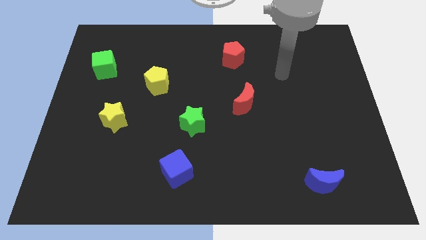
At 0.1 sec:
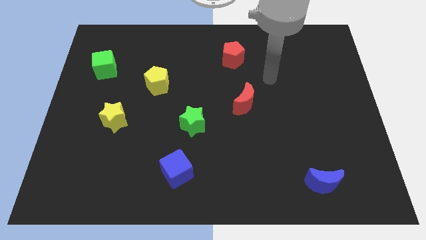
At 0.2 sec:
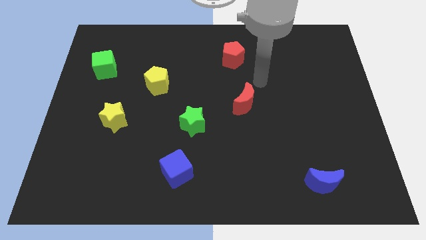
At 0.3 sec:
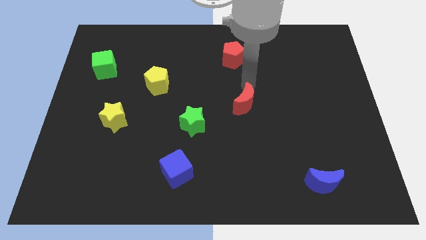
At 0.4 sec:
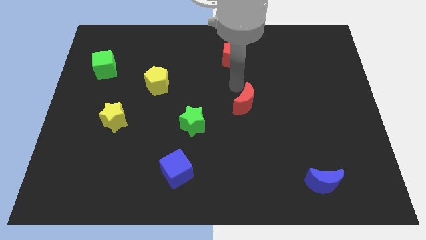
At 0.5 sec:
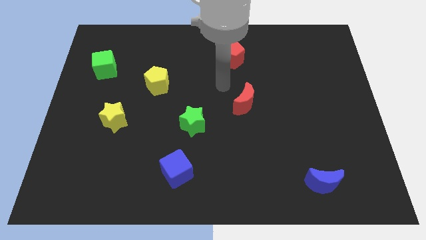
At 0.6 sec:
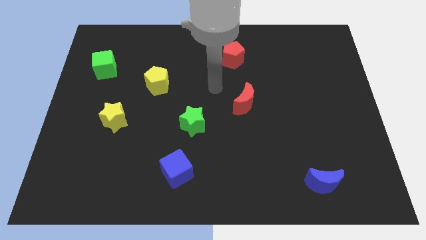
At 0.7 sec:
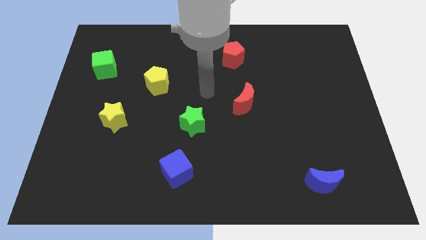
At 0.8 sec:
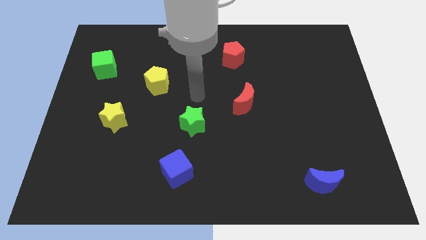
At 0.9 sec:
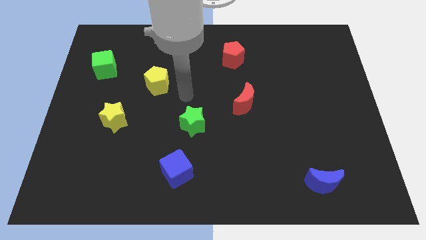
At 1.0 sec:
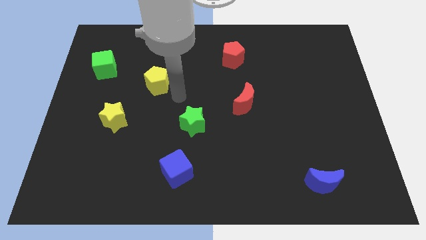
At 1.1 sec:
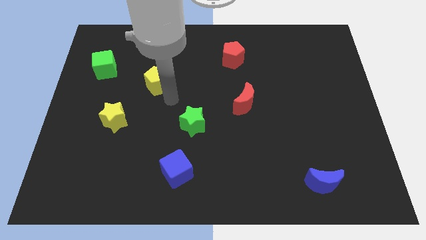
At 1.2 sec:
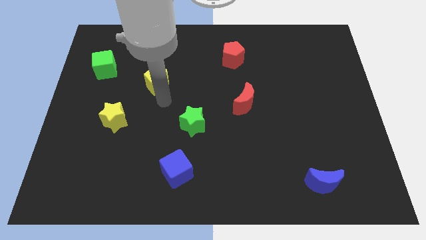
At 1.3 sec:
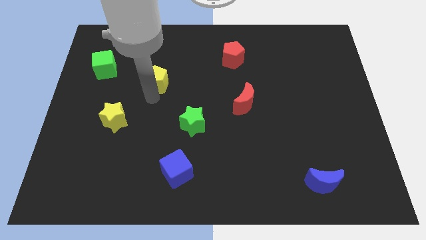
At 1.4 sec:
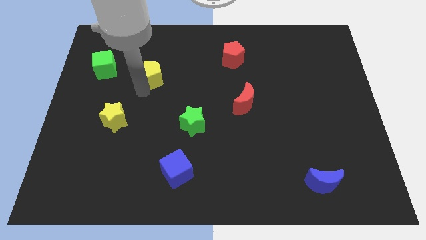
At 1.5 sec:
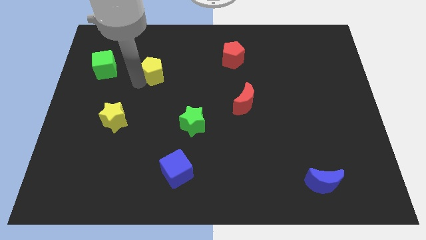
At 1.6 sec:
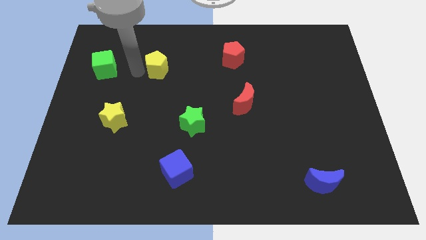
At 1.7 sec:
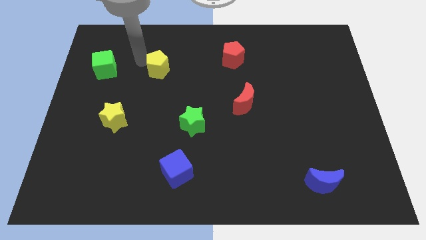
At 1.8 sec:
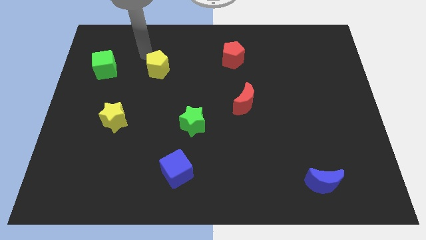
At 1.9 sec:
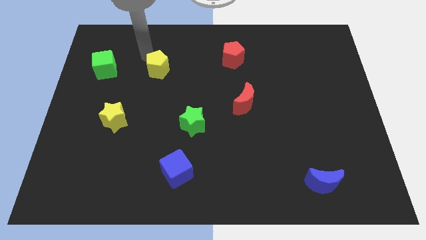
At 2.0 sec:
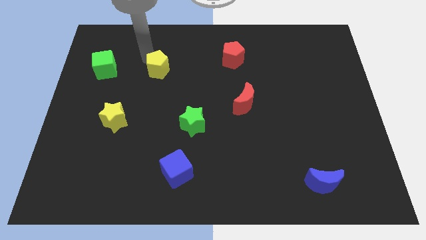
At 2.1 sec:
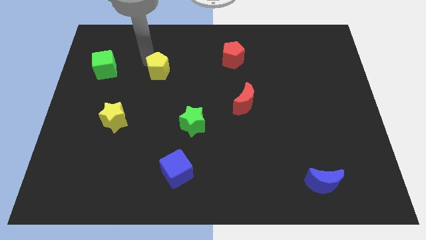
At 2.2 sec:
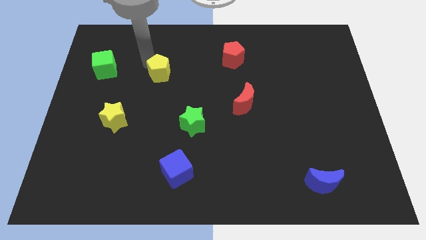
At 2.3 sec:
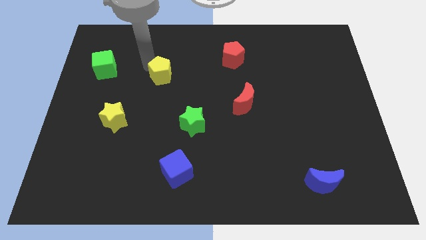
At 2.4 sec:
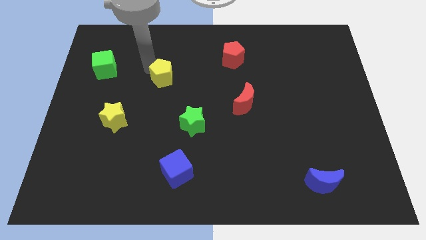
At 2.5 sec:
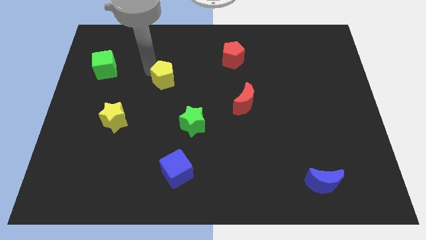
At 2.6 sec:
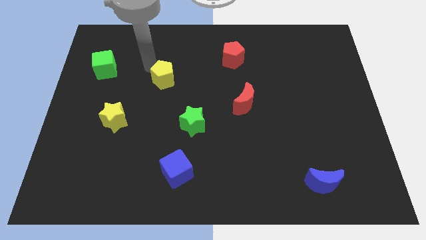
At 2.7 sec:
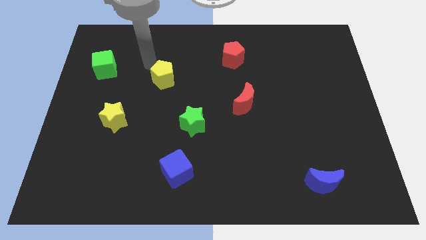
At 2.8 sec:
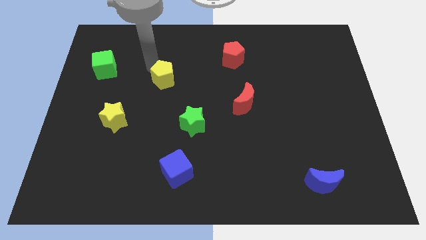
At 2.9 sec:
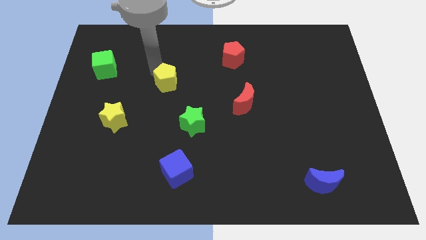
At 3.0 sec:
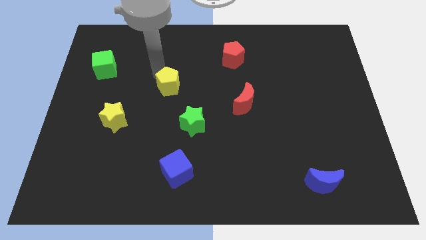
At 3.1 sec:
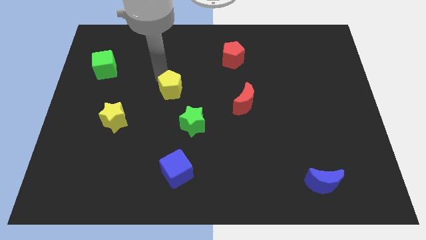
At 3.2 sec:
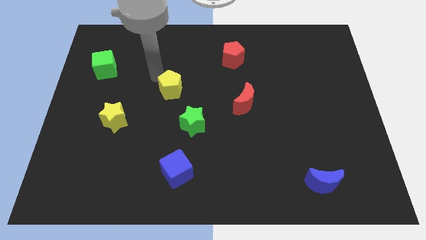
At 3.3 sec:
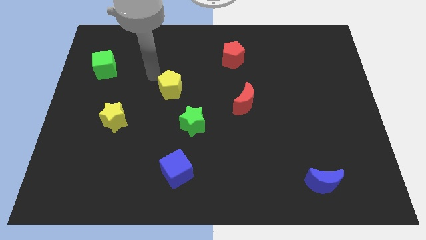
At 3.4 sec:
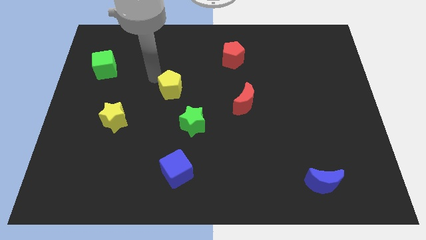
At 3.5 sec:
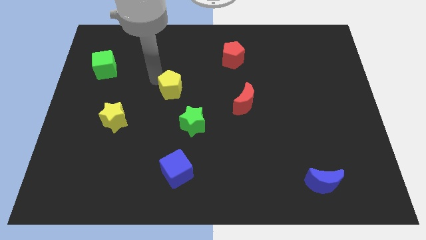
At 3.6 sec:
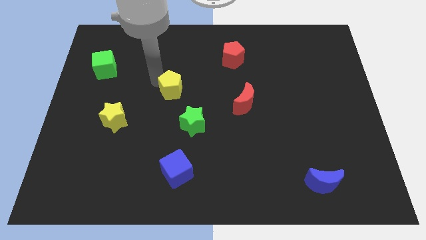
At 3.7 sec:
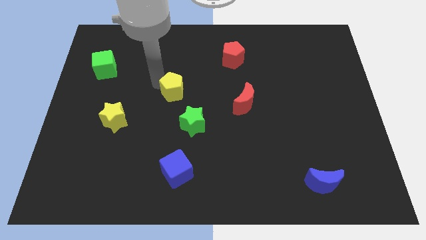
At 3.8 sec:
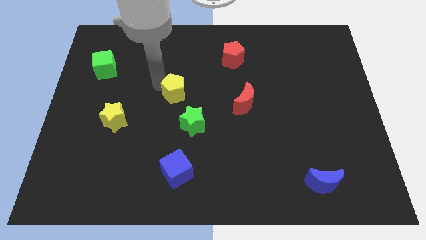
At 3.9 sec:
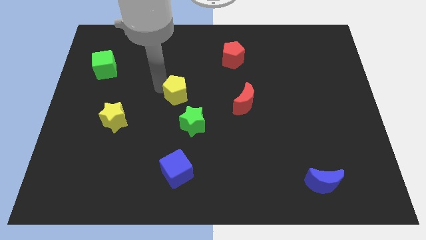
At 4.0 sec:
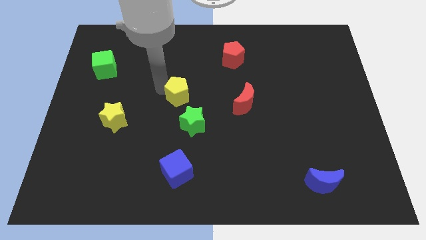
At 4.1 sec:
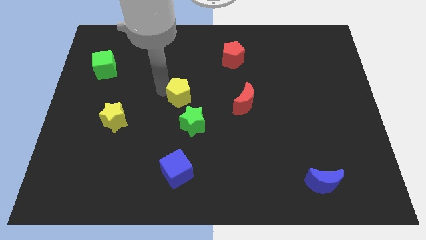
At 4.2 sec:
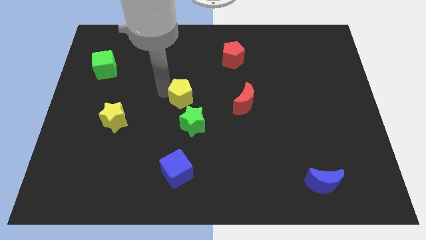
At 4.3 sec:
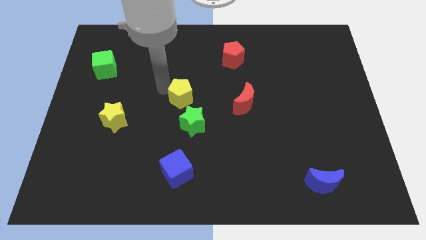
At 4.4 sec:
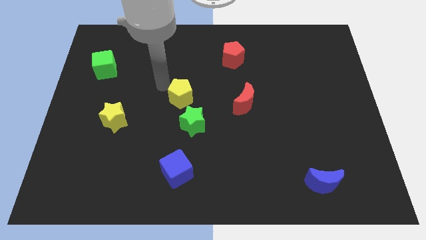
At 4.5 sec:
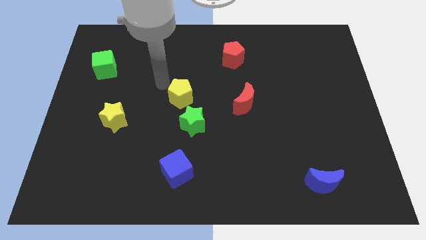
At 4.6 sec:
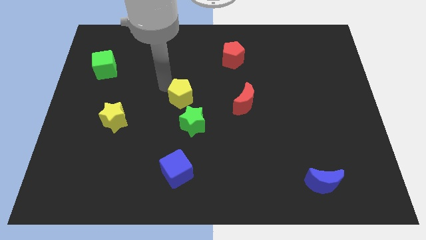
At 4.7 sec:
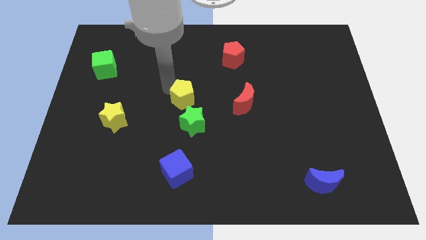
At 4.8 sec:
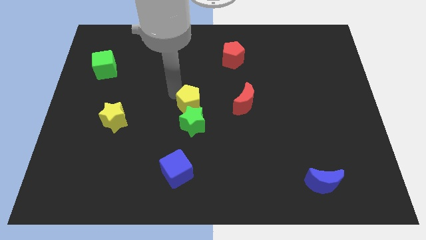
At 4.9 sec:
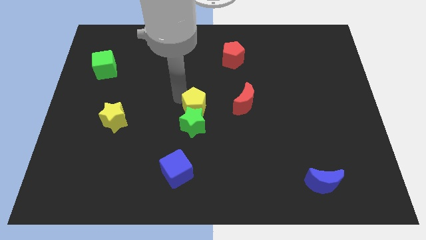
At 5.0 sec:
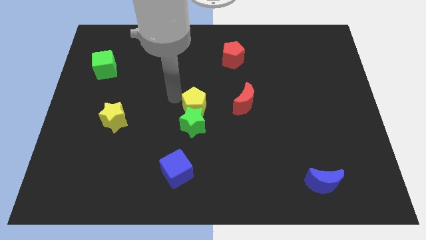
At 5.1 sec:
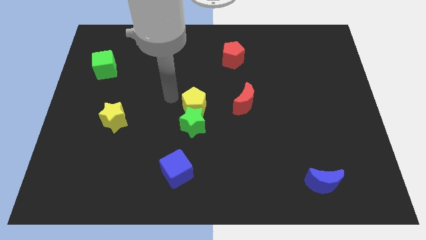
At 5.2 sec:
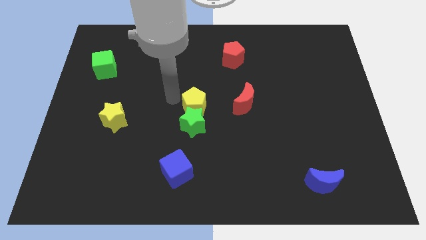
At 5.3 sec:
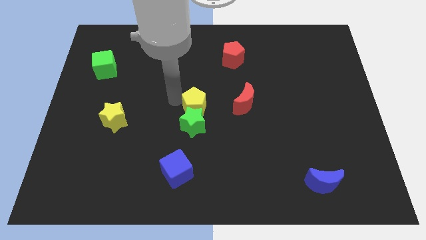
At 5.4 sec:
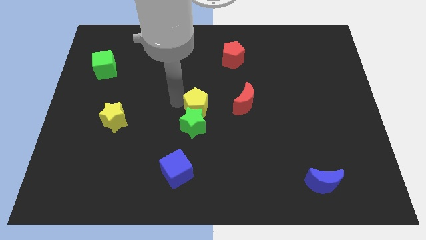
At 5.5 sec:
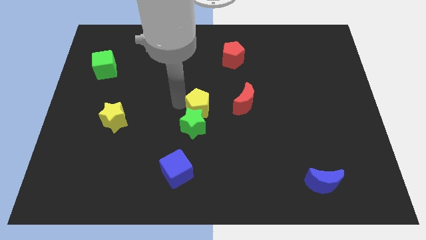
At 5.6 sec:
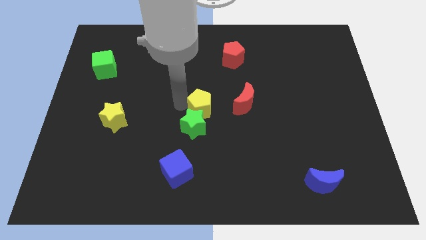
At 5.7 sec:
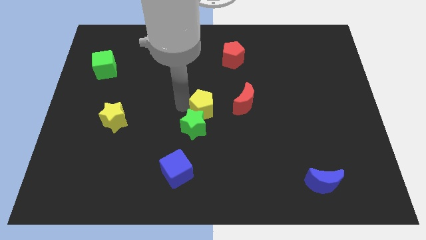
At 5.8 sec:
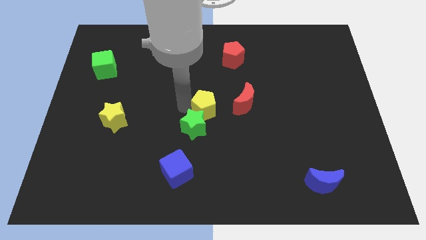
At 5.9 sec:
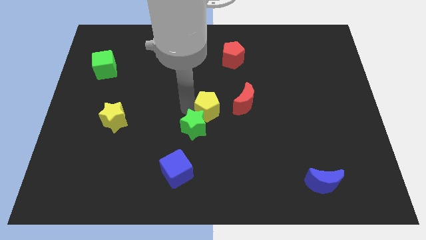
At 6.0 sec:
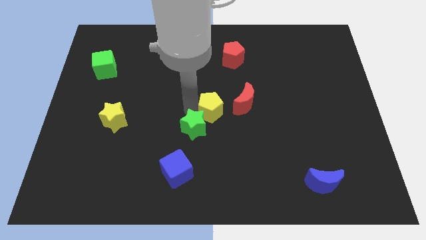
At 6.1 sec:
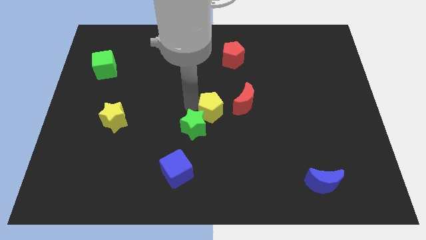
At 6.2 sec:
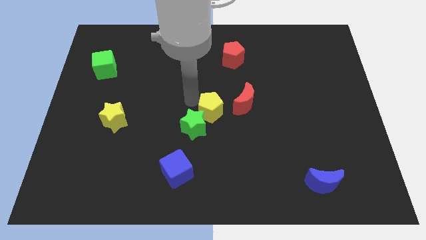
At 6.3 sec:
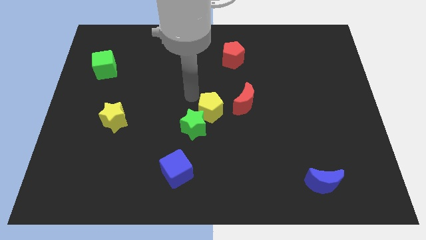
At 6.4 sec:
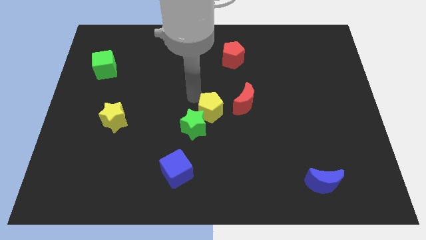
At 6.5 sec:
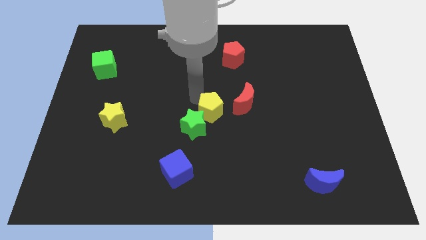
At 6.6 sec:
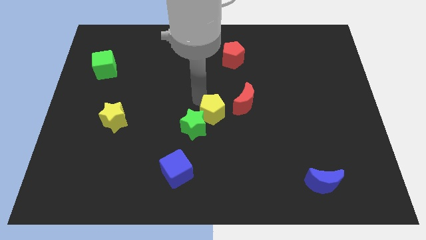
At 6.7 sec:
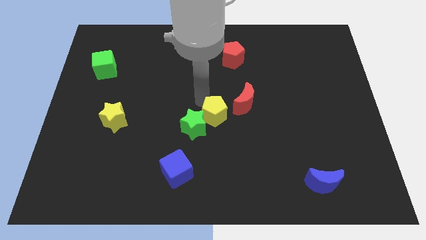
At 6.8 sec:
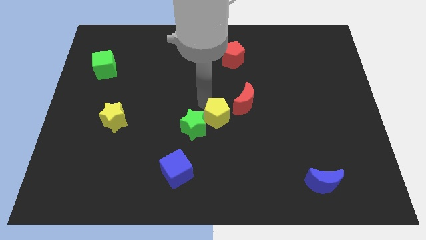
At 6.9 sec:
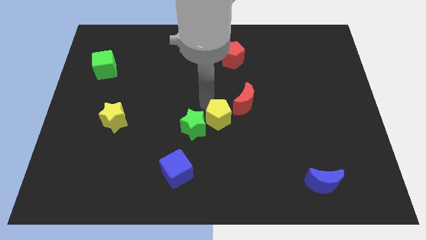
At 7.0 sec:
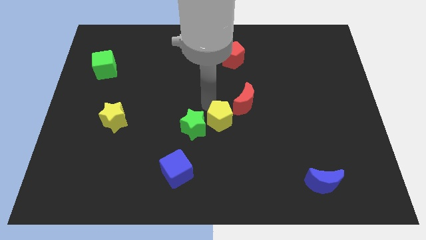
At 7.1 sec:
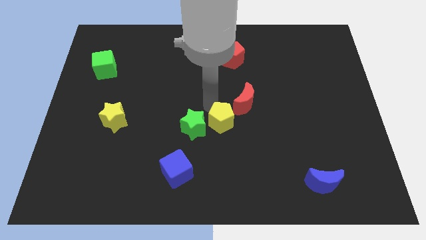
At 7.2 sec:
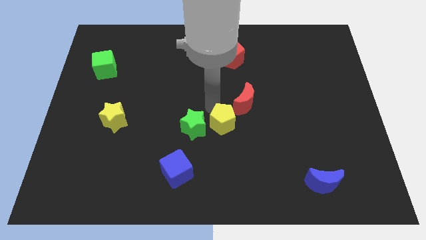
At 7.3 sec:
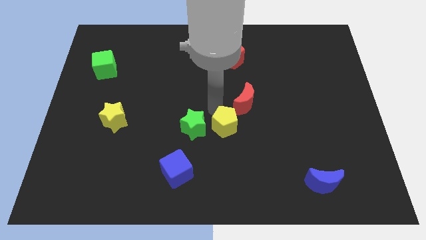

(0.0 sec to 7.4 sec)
slide the yellow pentagon diagonally downwards and to the right

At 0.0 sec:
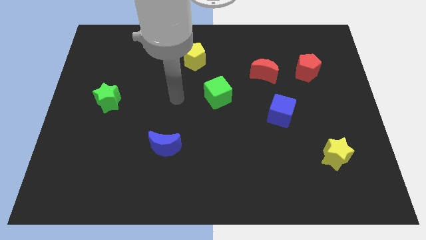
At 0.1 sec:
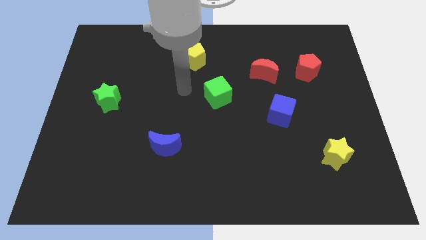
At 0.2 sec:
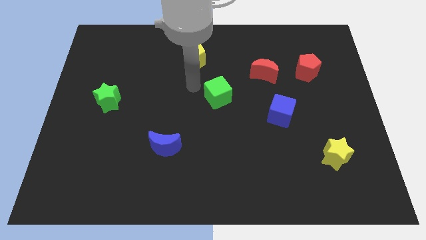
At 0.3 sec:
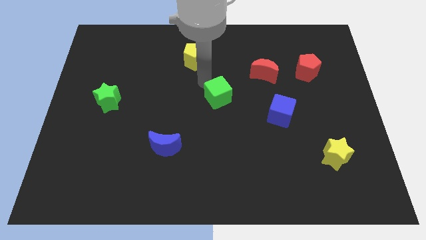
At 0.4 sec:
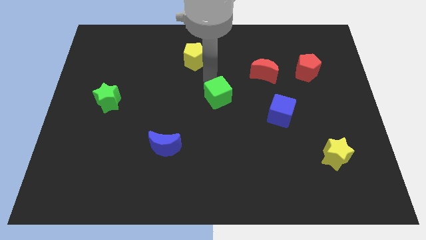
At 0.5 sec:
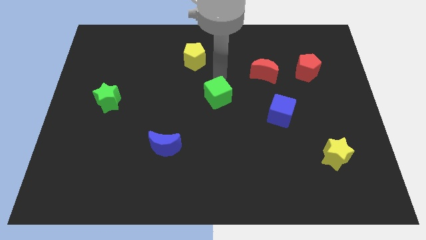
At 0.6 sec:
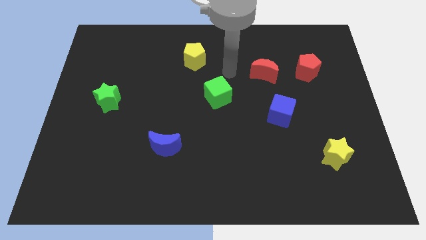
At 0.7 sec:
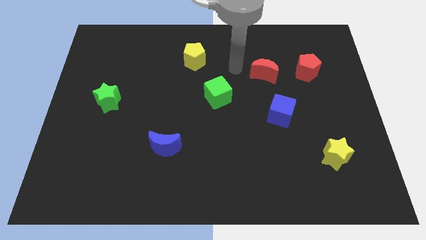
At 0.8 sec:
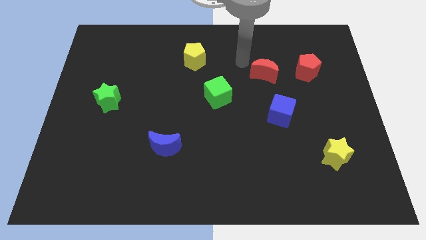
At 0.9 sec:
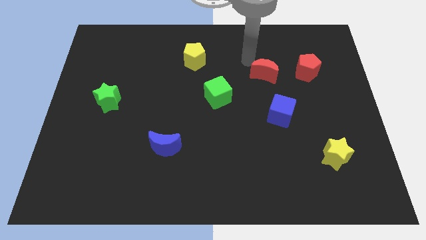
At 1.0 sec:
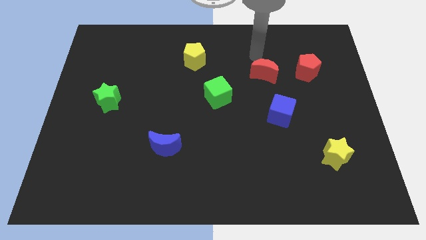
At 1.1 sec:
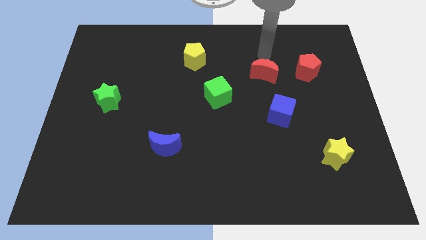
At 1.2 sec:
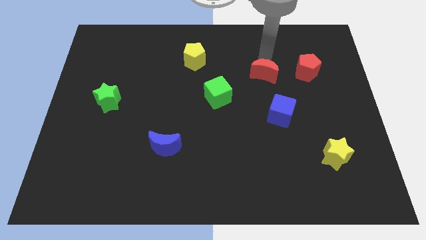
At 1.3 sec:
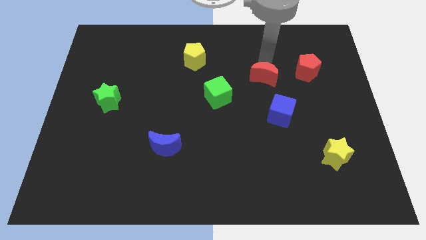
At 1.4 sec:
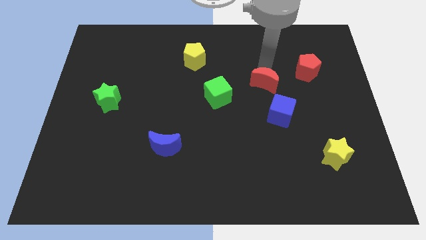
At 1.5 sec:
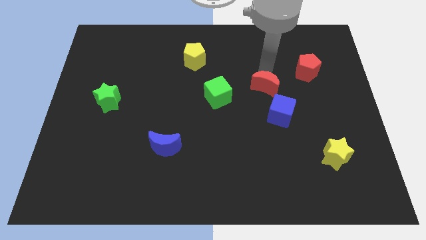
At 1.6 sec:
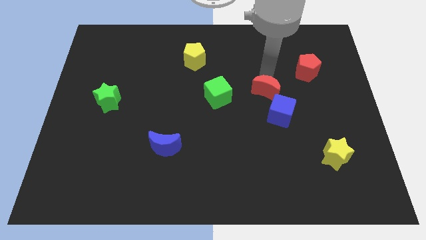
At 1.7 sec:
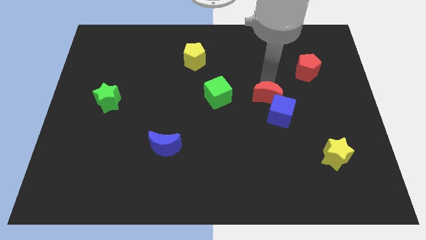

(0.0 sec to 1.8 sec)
slide the red moon down slightly
